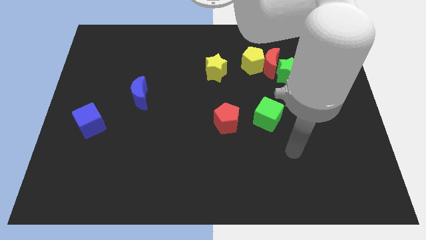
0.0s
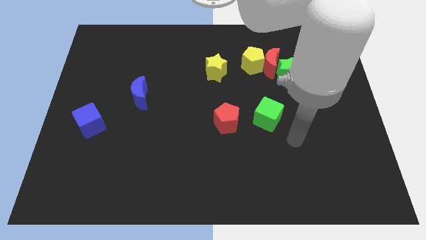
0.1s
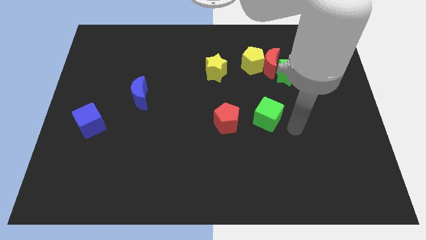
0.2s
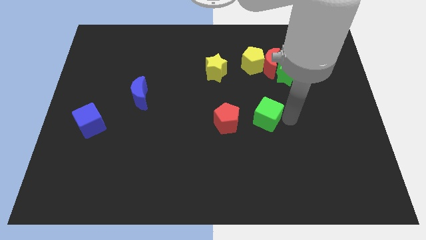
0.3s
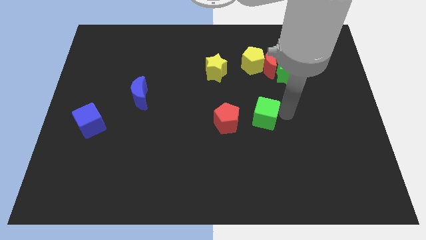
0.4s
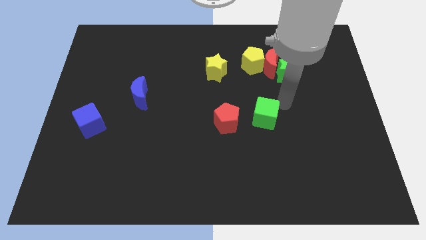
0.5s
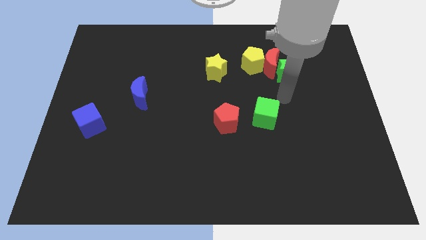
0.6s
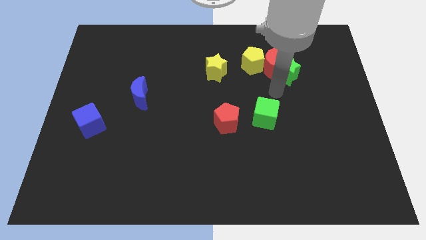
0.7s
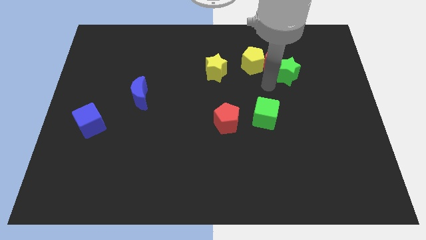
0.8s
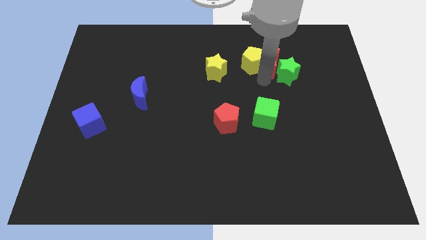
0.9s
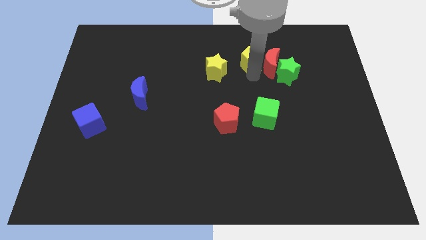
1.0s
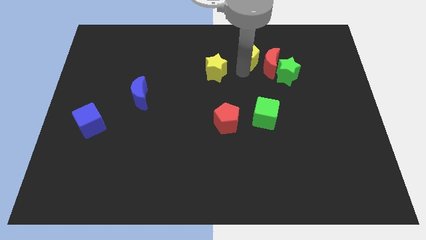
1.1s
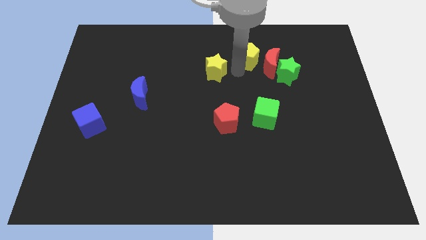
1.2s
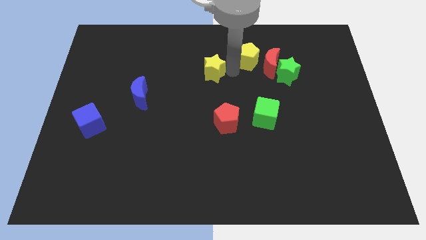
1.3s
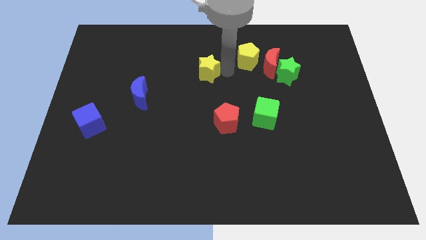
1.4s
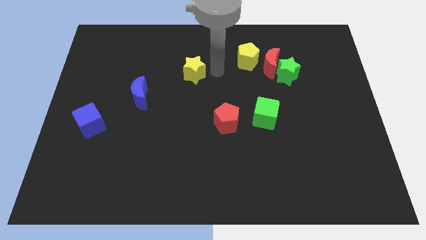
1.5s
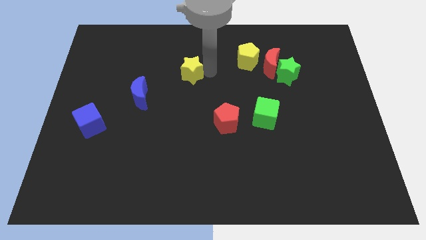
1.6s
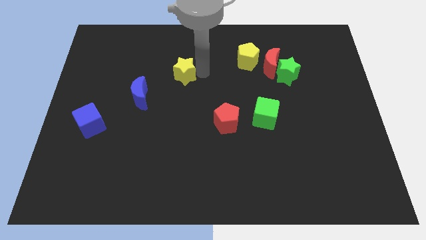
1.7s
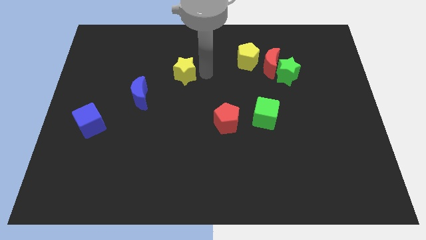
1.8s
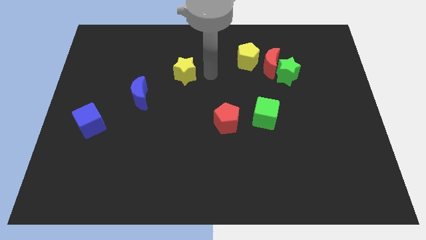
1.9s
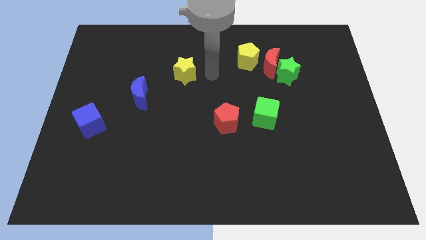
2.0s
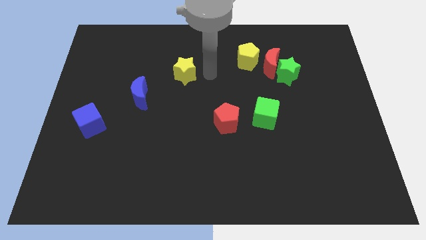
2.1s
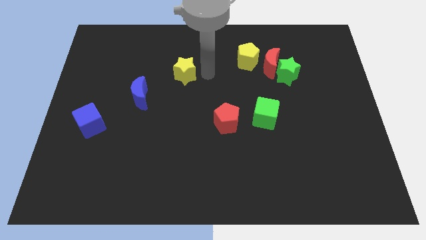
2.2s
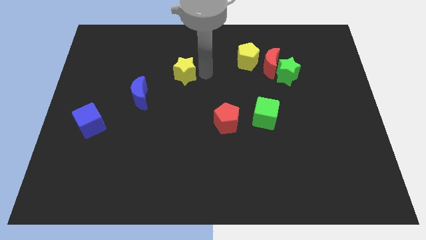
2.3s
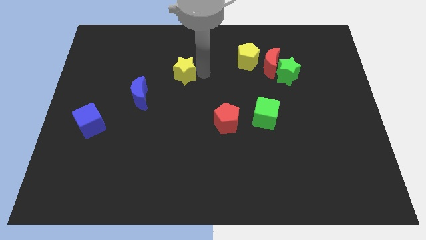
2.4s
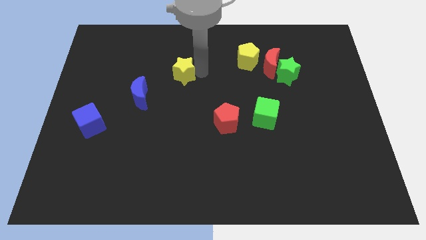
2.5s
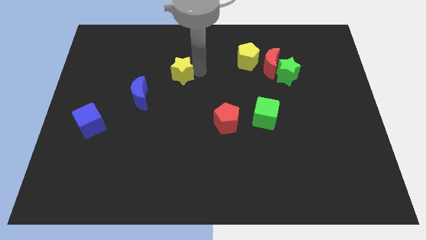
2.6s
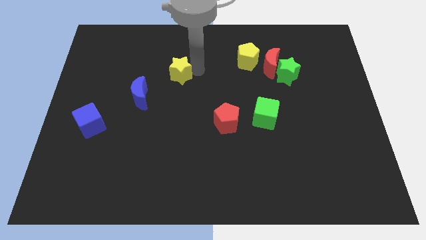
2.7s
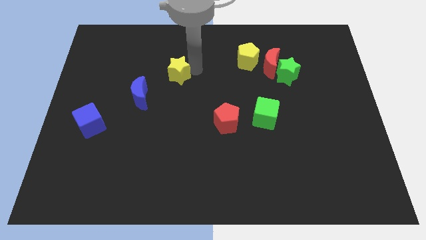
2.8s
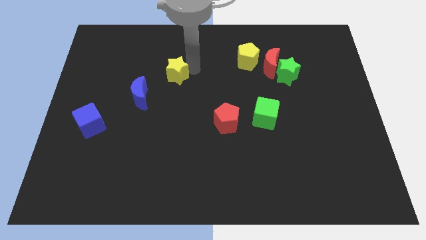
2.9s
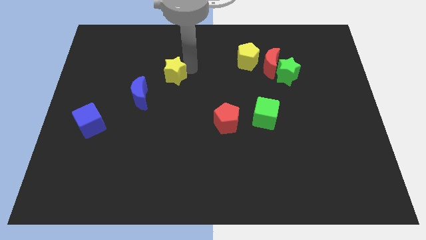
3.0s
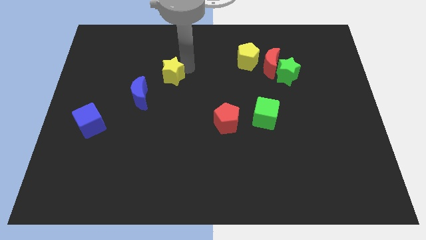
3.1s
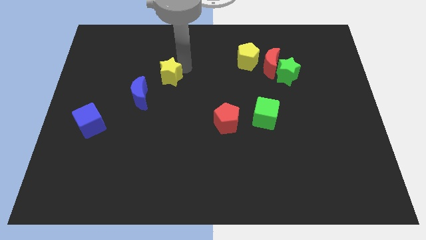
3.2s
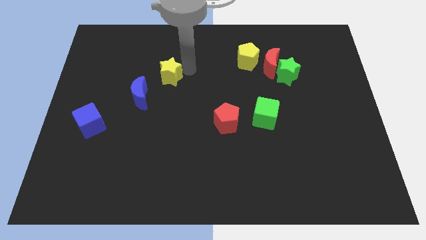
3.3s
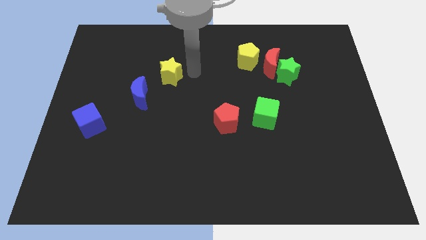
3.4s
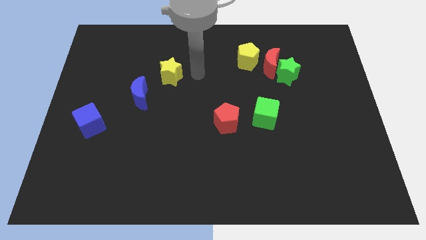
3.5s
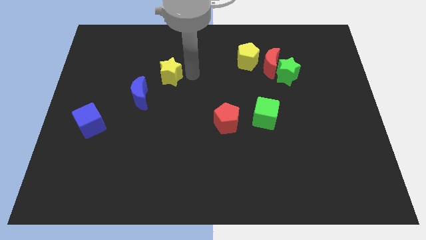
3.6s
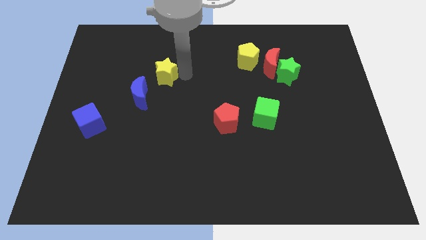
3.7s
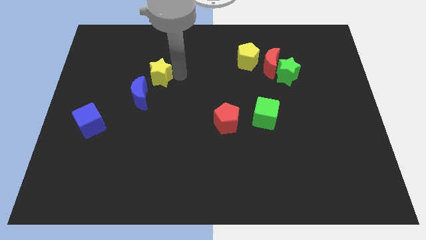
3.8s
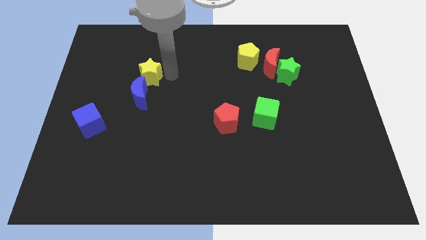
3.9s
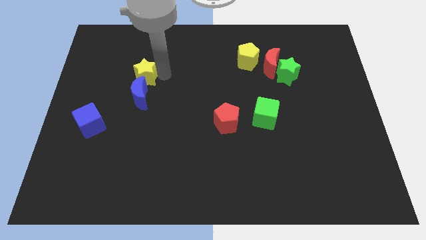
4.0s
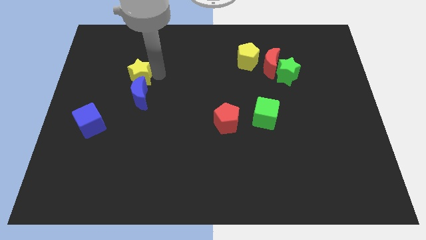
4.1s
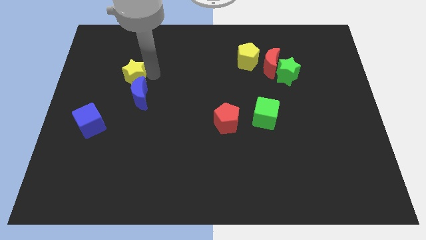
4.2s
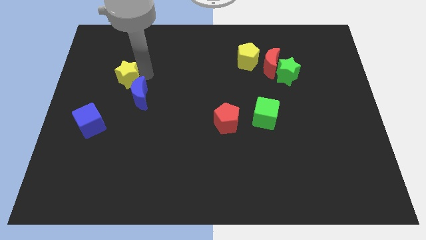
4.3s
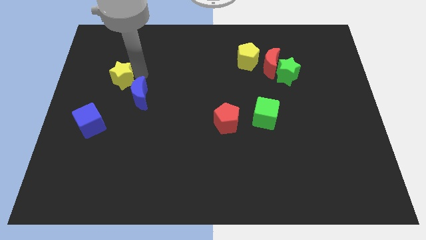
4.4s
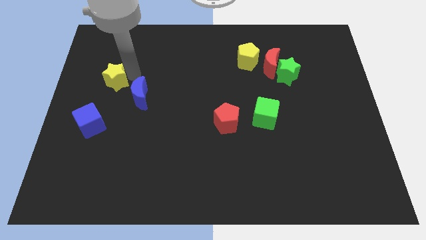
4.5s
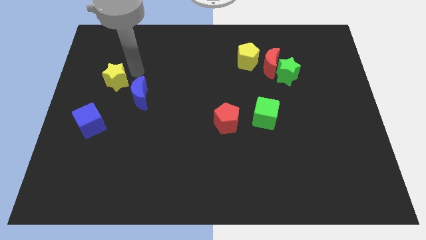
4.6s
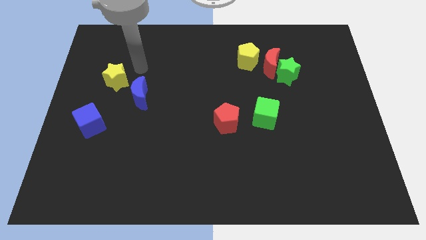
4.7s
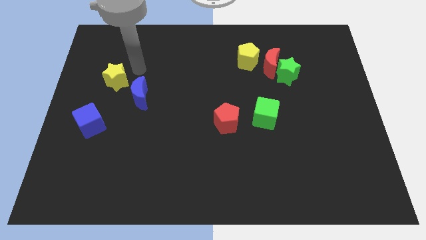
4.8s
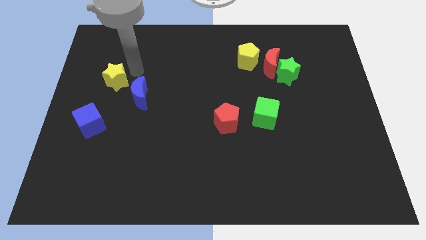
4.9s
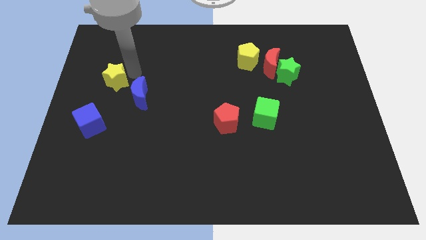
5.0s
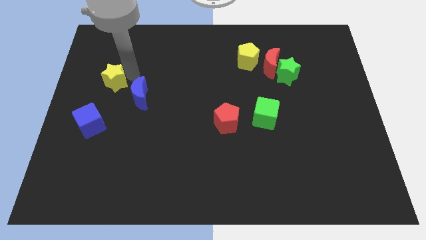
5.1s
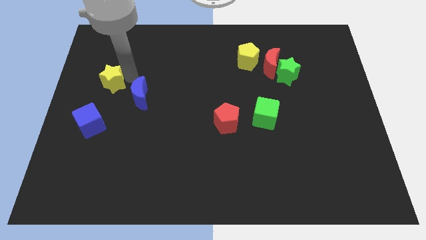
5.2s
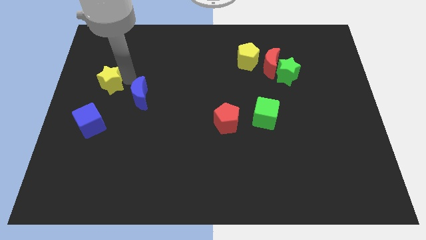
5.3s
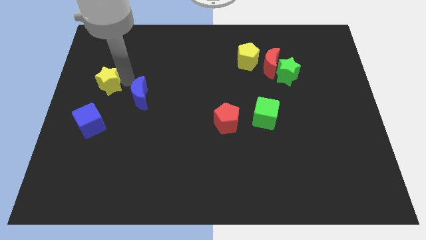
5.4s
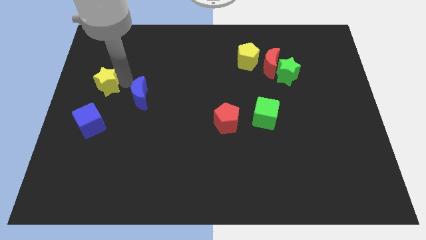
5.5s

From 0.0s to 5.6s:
slide the yellow star to the left side
